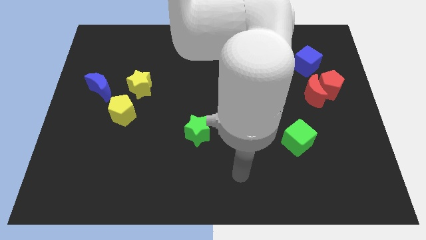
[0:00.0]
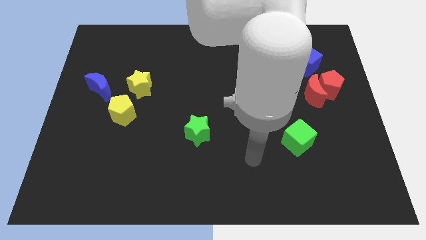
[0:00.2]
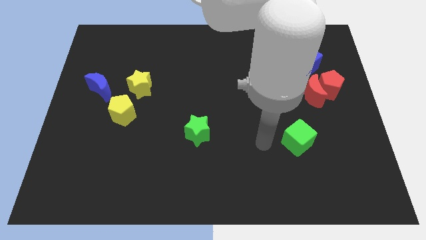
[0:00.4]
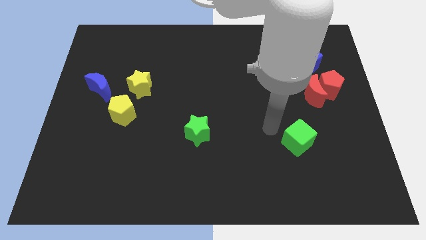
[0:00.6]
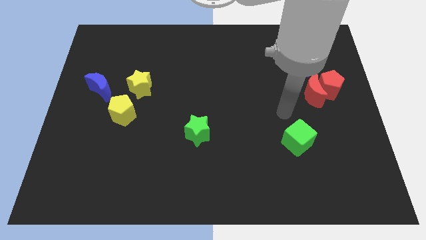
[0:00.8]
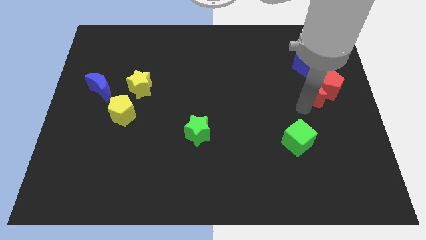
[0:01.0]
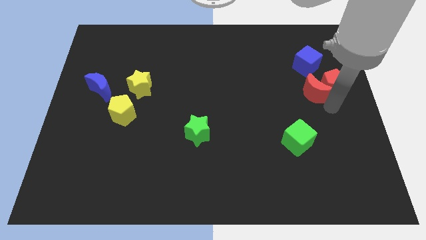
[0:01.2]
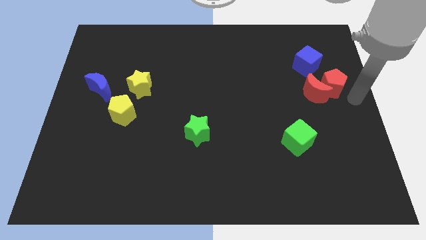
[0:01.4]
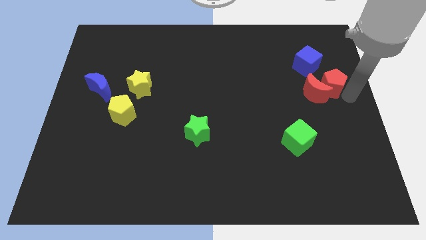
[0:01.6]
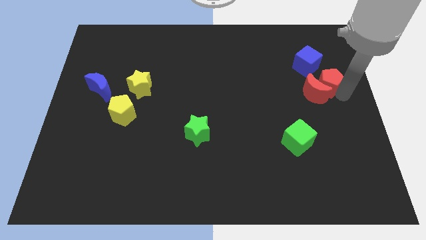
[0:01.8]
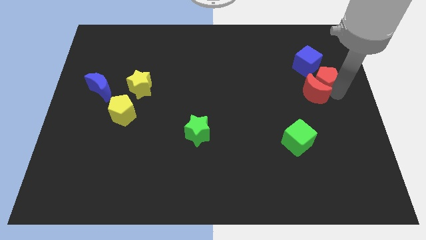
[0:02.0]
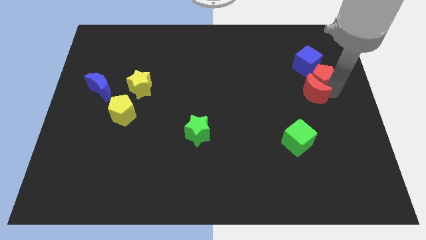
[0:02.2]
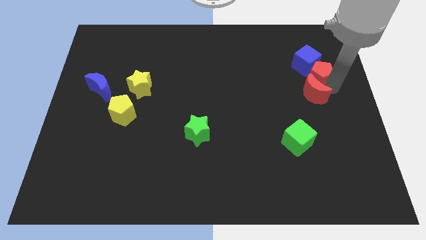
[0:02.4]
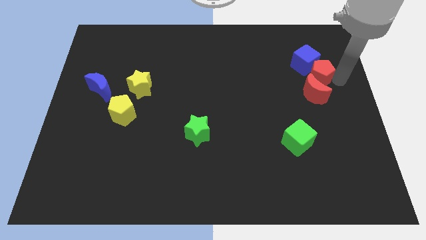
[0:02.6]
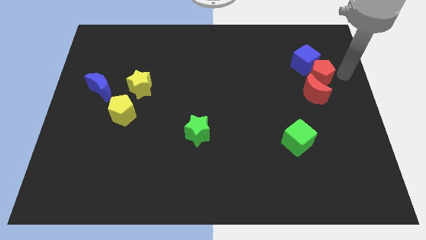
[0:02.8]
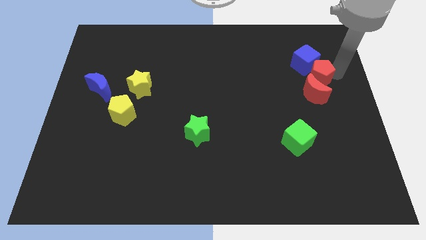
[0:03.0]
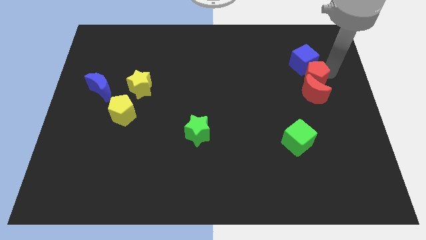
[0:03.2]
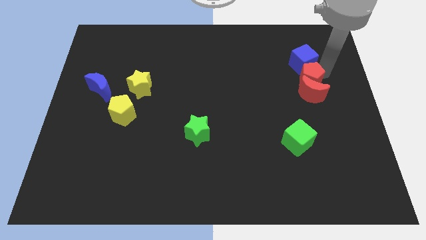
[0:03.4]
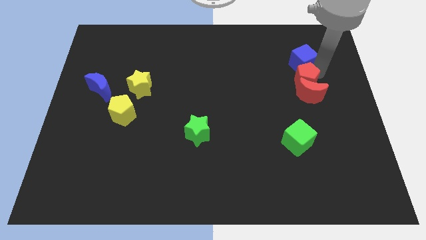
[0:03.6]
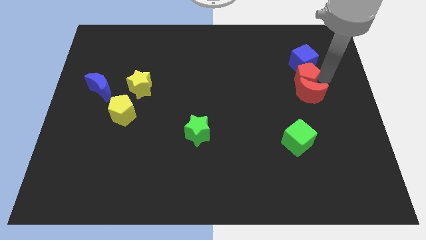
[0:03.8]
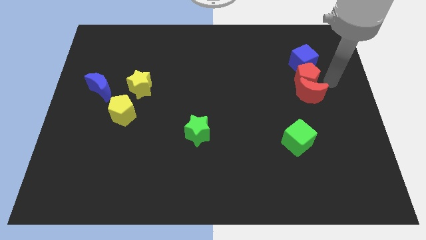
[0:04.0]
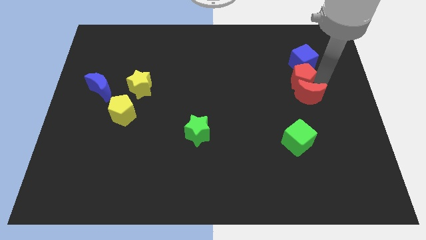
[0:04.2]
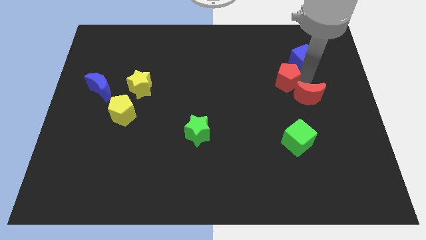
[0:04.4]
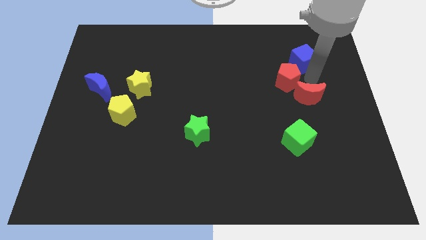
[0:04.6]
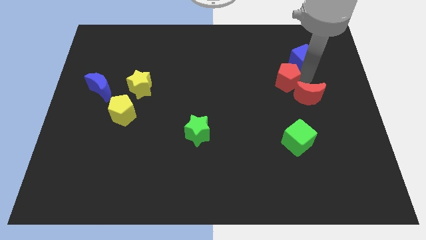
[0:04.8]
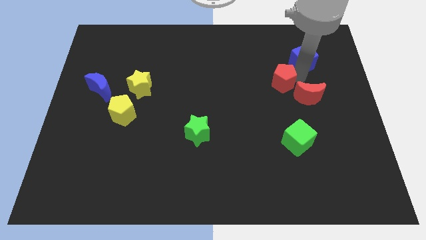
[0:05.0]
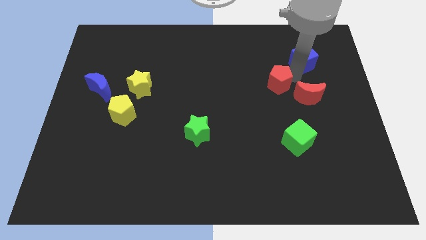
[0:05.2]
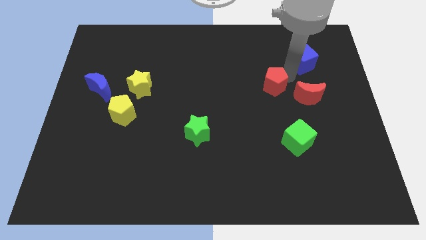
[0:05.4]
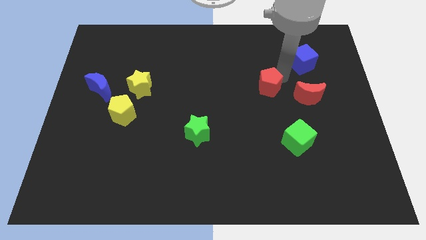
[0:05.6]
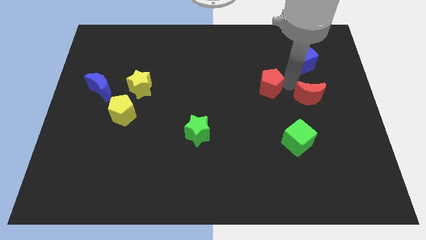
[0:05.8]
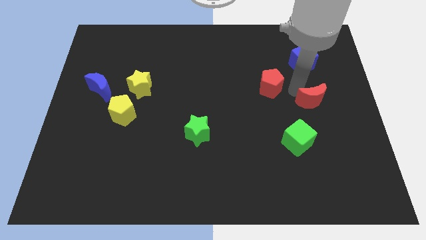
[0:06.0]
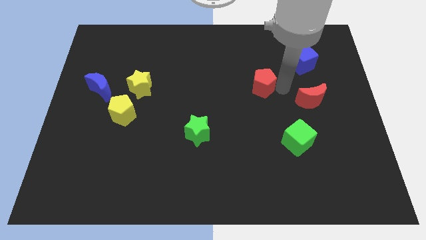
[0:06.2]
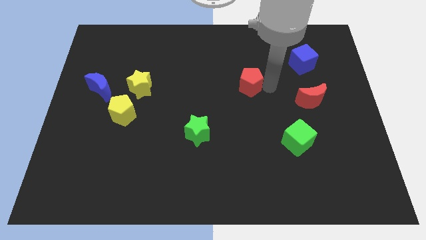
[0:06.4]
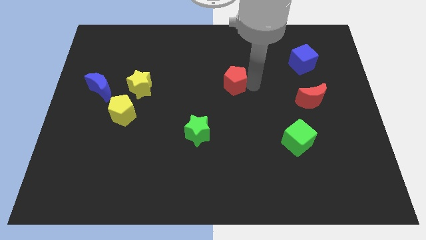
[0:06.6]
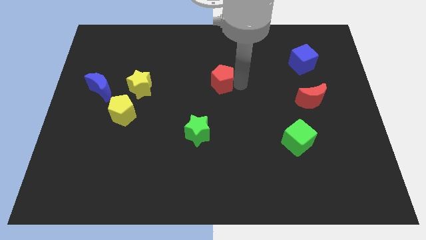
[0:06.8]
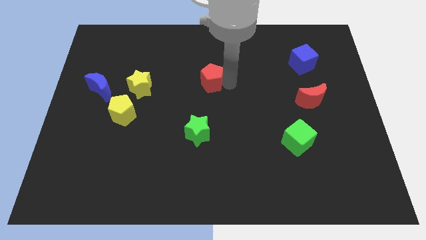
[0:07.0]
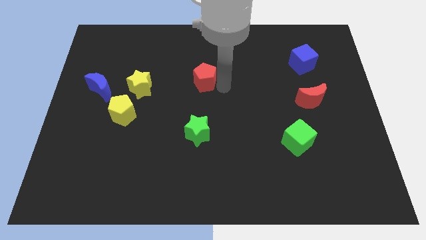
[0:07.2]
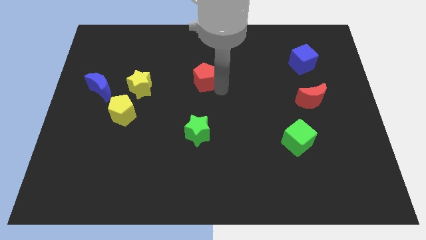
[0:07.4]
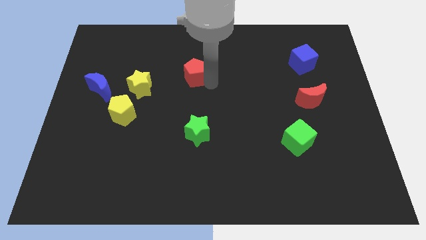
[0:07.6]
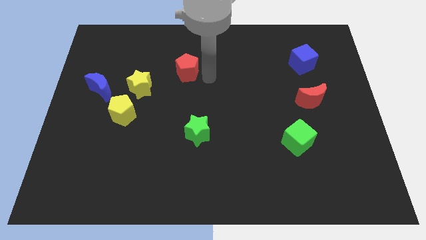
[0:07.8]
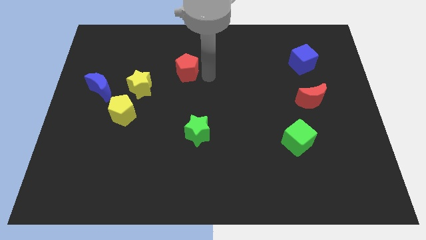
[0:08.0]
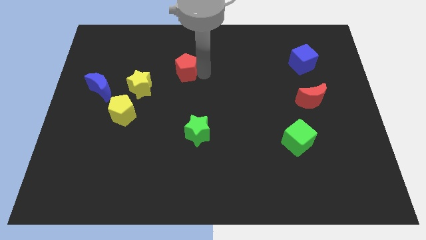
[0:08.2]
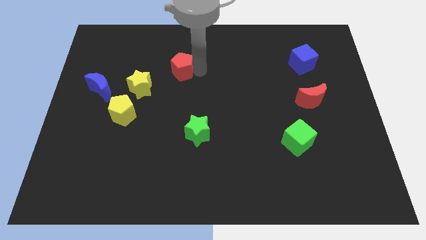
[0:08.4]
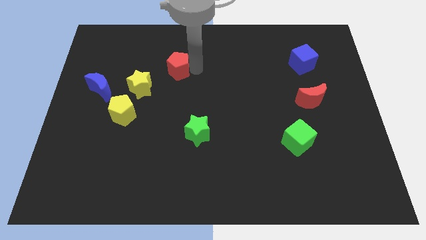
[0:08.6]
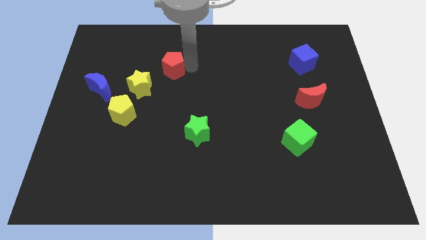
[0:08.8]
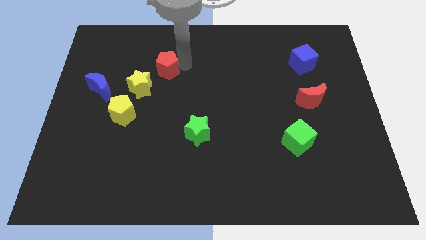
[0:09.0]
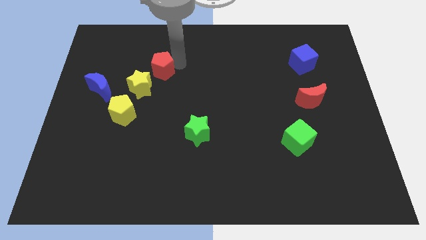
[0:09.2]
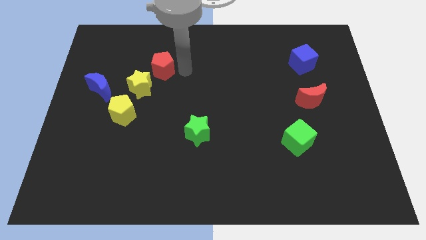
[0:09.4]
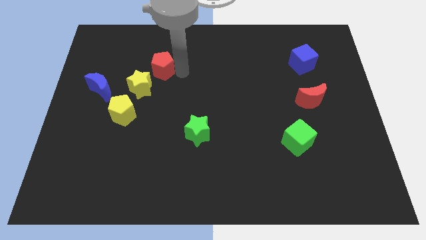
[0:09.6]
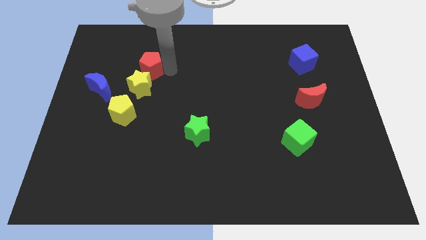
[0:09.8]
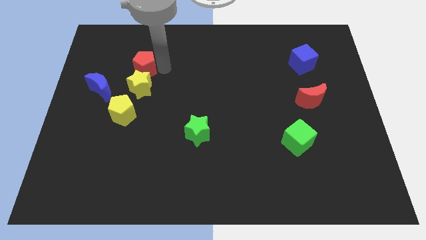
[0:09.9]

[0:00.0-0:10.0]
slide the red pentagon to the top side of the yellow pentagon

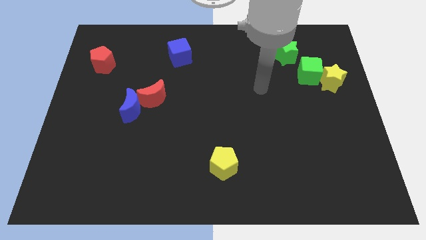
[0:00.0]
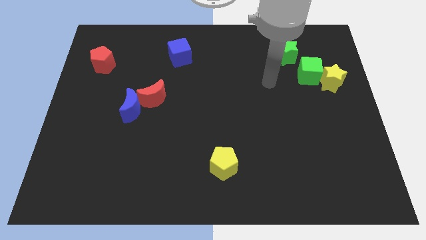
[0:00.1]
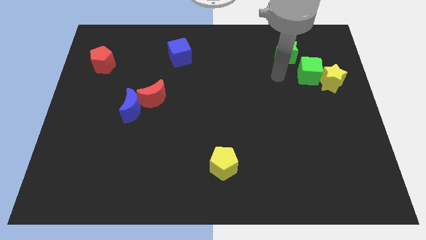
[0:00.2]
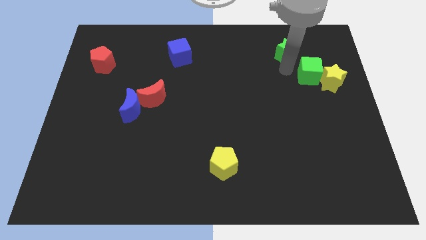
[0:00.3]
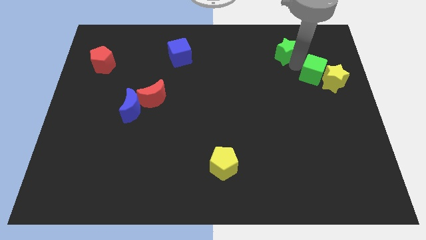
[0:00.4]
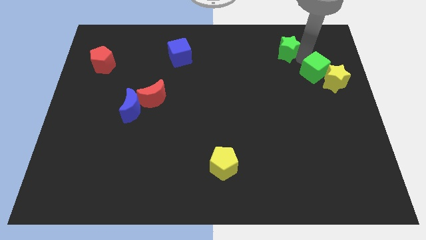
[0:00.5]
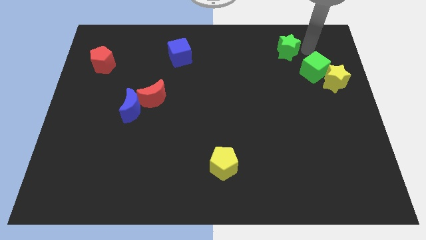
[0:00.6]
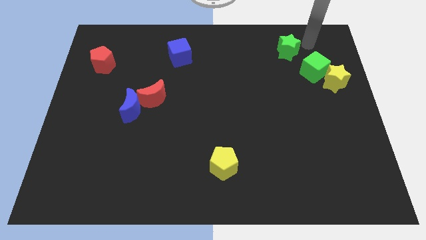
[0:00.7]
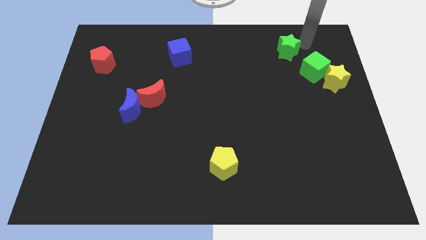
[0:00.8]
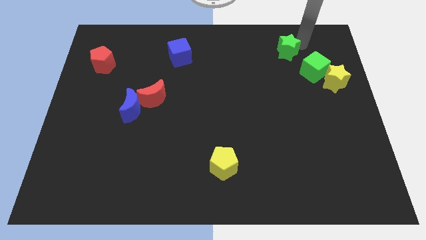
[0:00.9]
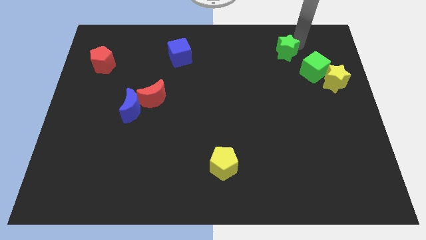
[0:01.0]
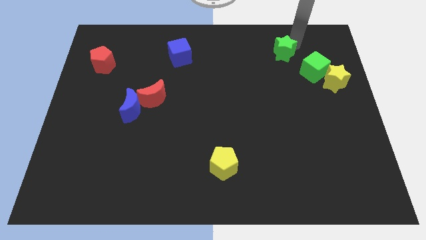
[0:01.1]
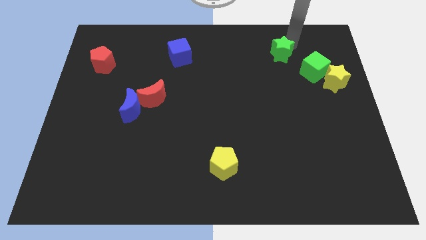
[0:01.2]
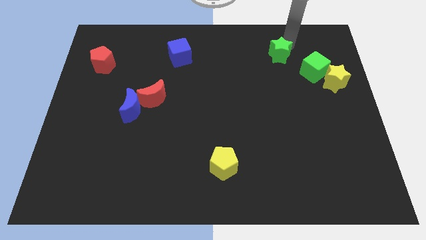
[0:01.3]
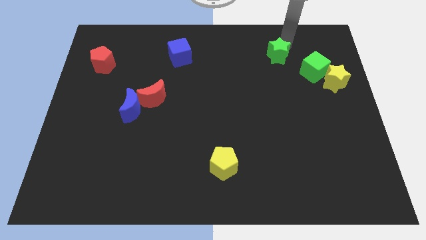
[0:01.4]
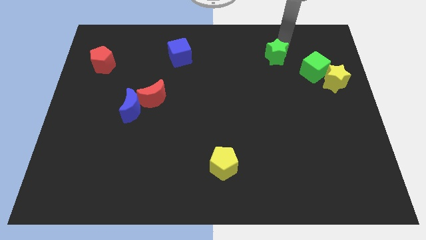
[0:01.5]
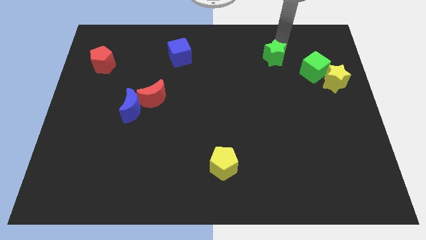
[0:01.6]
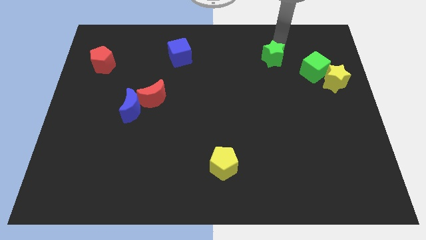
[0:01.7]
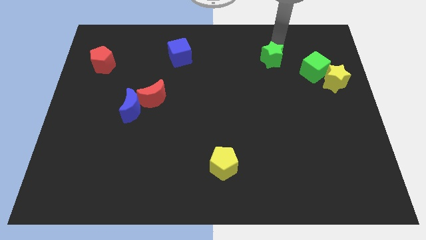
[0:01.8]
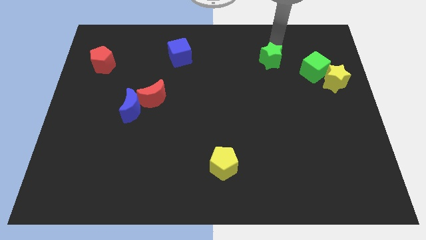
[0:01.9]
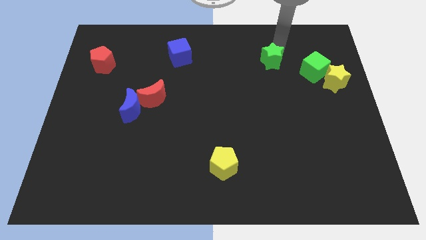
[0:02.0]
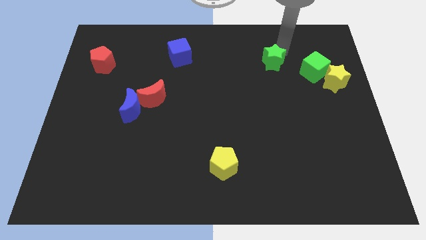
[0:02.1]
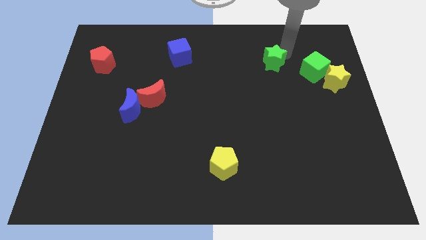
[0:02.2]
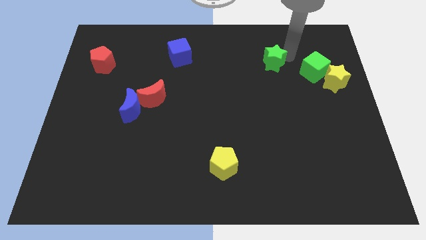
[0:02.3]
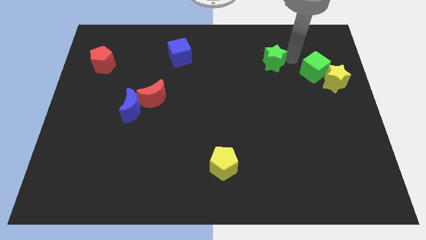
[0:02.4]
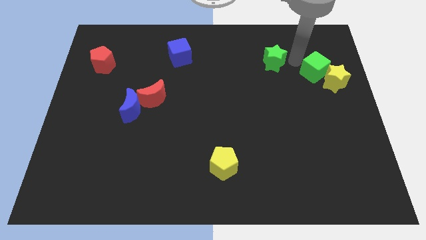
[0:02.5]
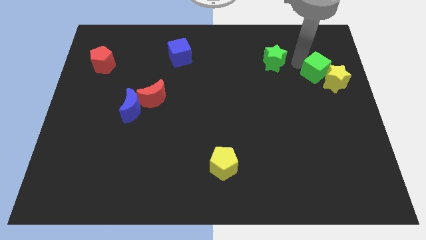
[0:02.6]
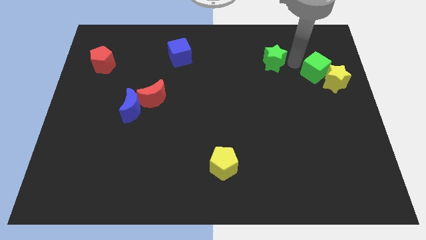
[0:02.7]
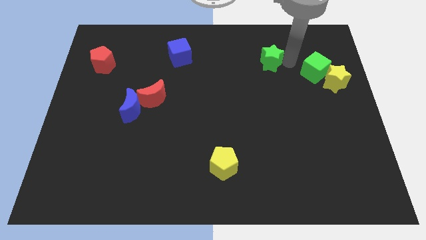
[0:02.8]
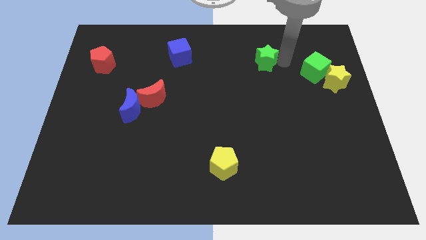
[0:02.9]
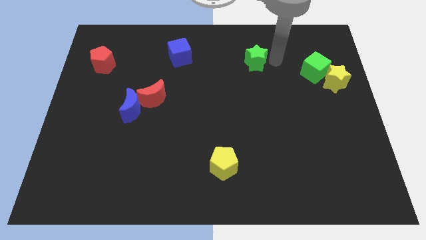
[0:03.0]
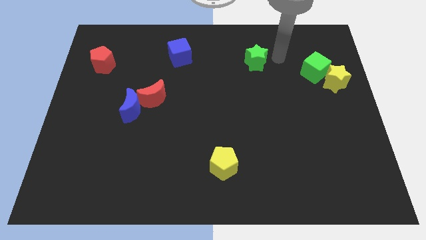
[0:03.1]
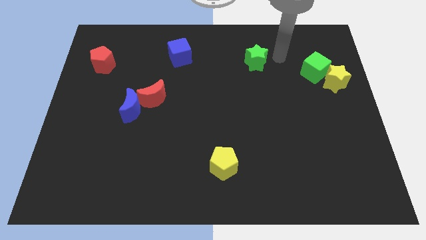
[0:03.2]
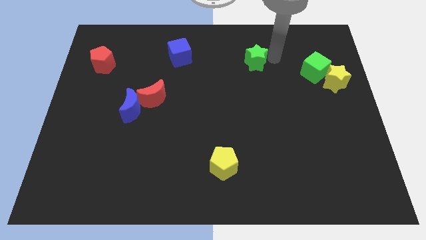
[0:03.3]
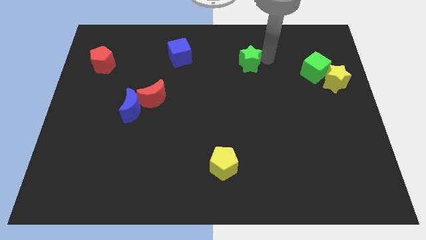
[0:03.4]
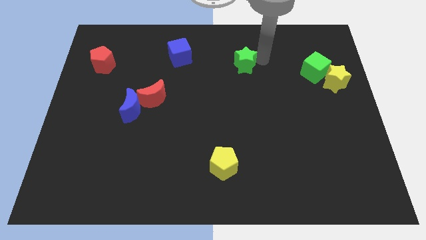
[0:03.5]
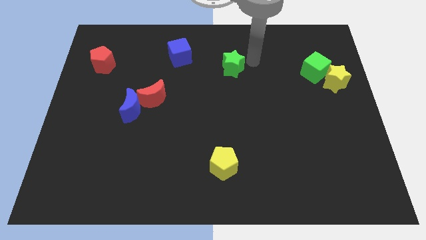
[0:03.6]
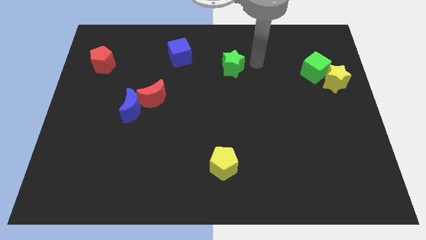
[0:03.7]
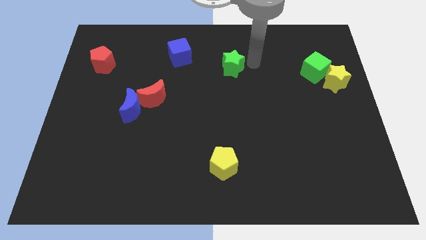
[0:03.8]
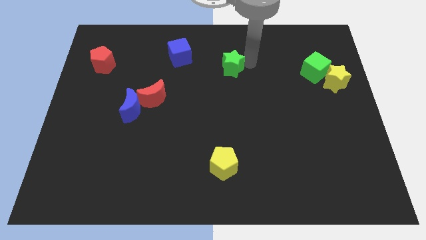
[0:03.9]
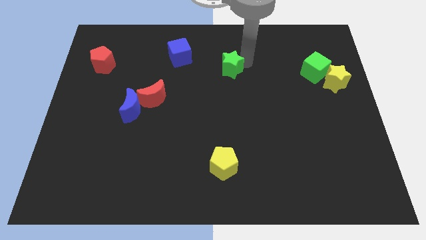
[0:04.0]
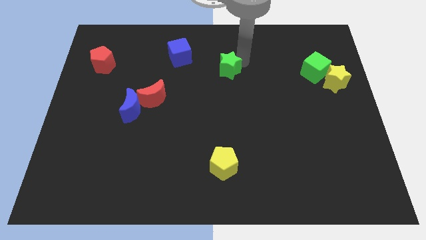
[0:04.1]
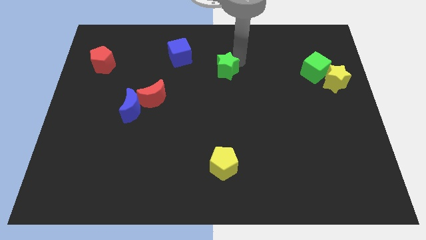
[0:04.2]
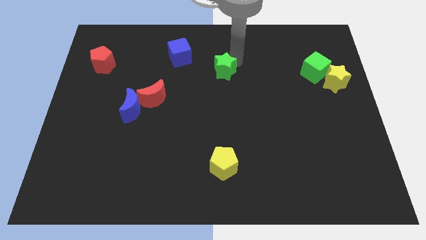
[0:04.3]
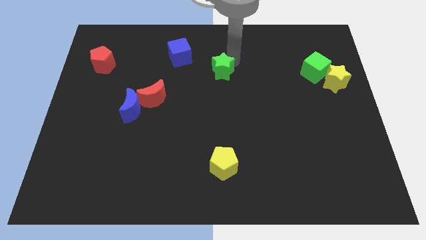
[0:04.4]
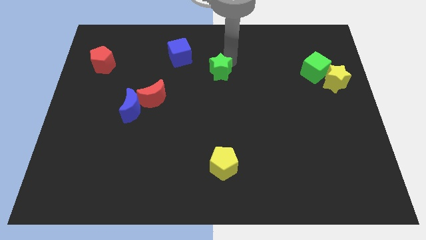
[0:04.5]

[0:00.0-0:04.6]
push the green star to the bottom right of the blue cube
